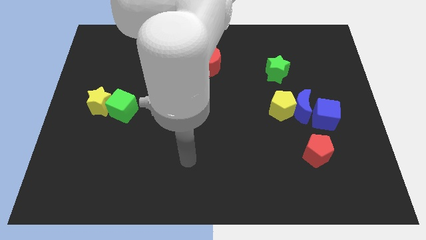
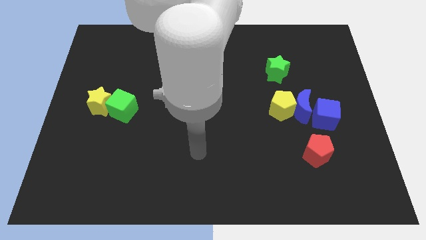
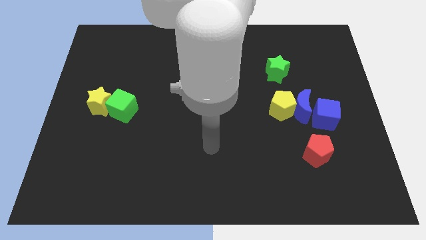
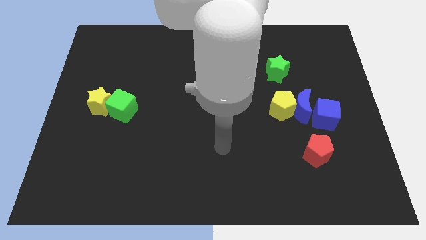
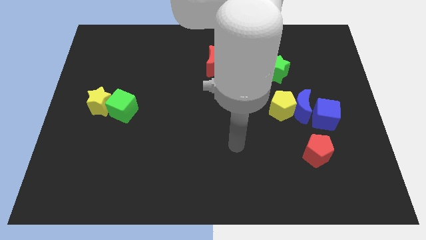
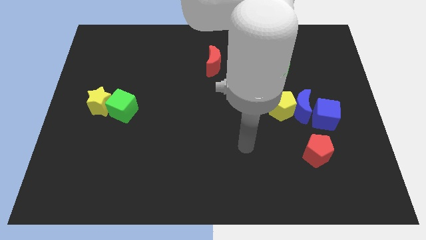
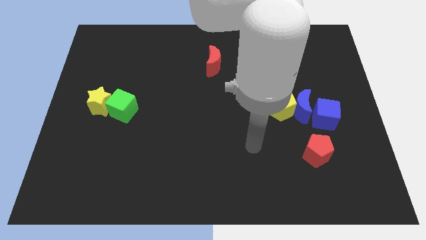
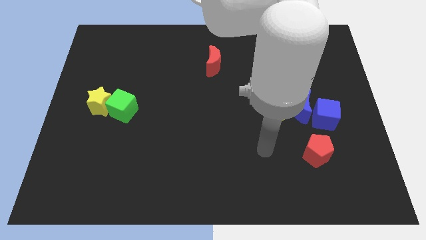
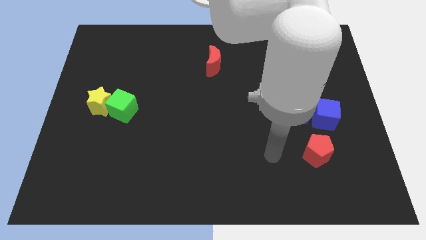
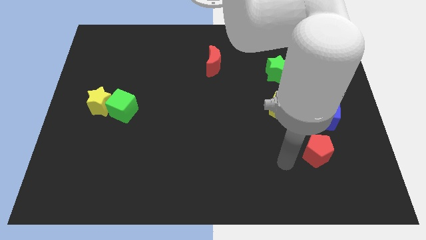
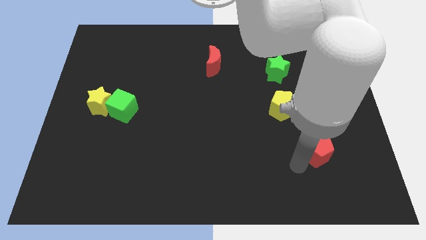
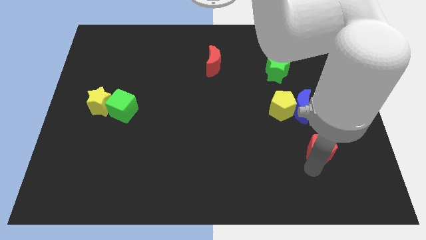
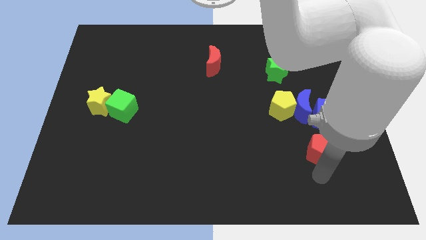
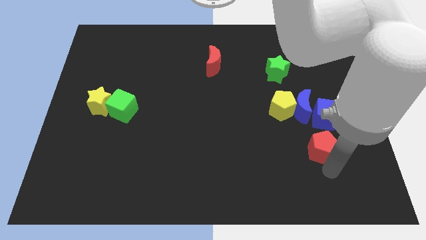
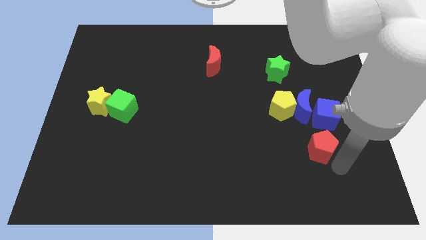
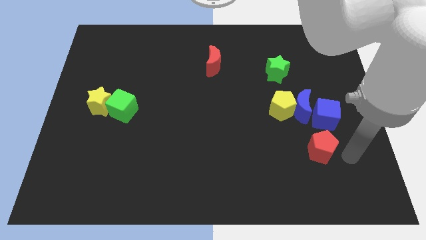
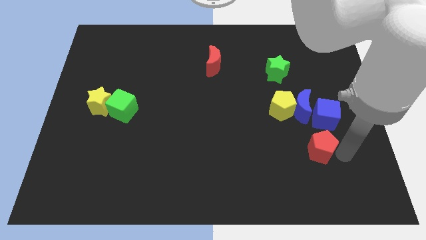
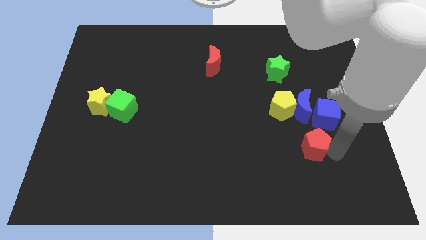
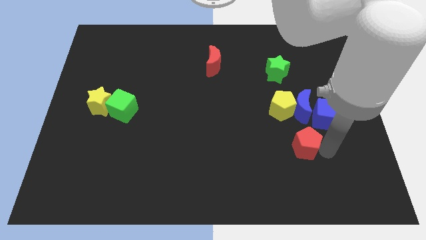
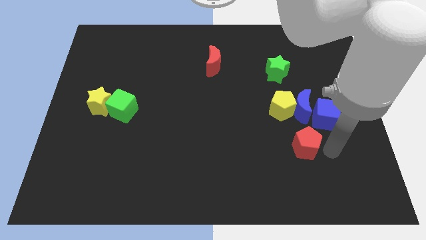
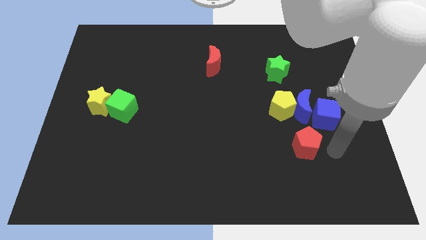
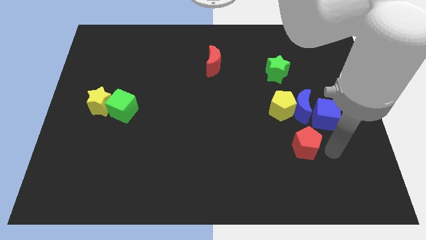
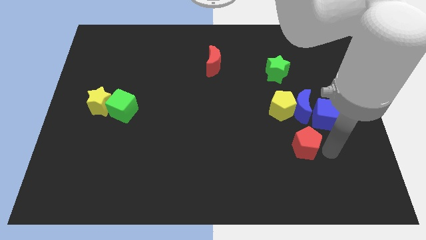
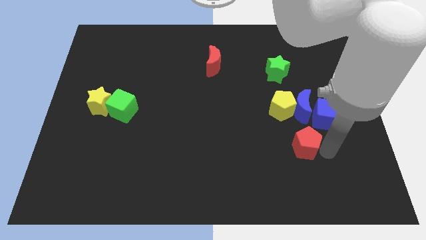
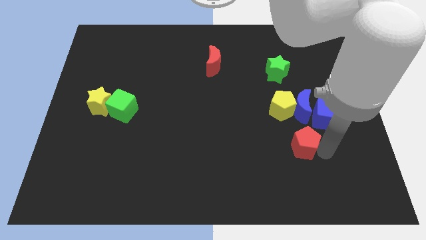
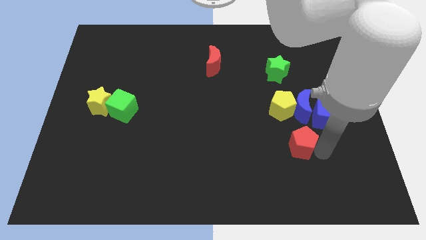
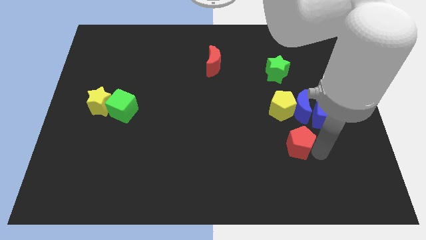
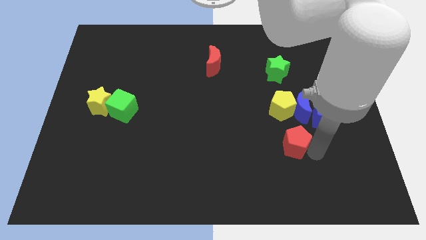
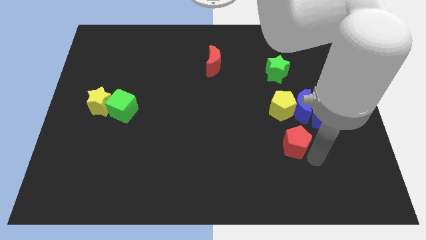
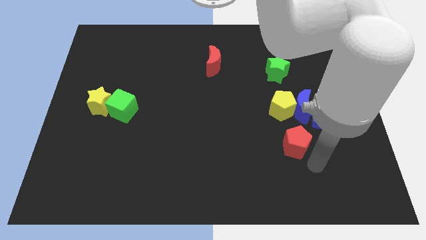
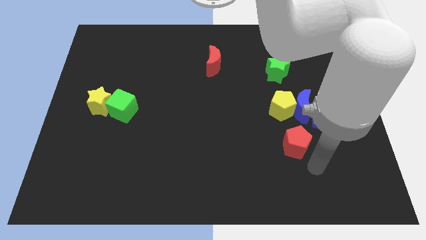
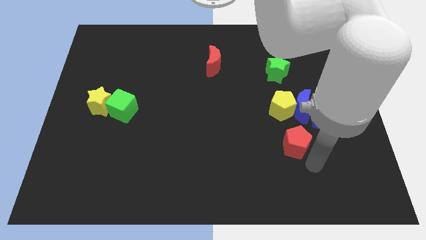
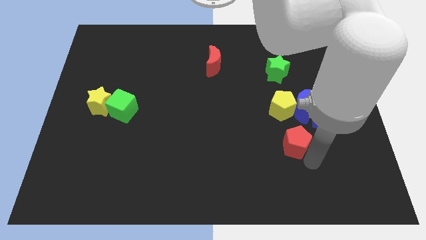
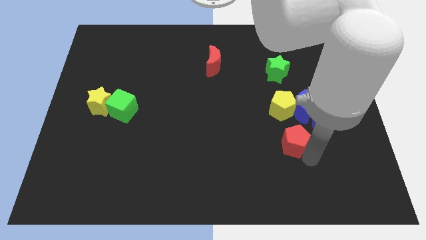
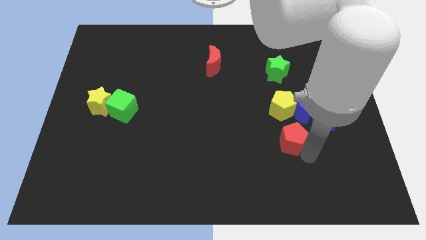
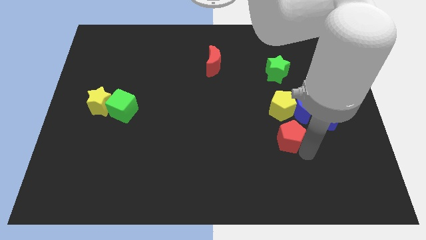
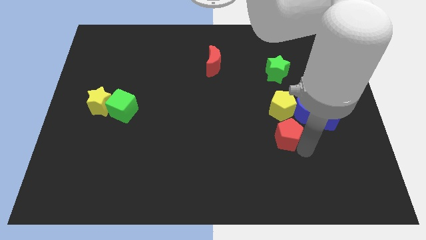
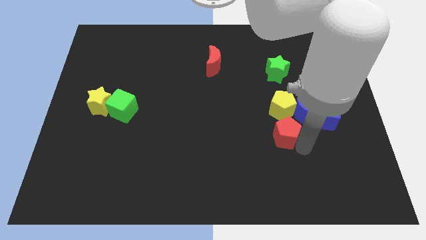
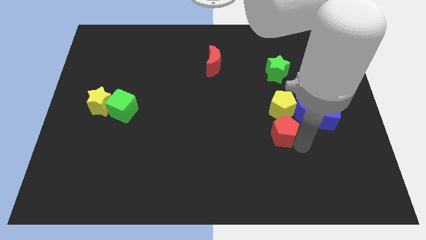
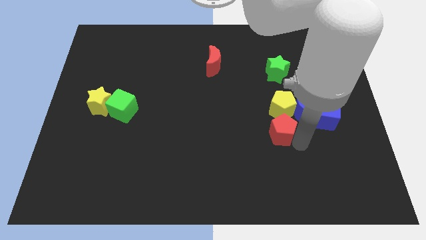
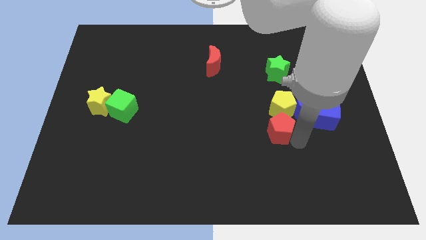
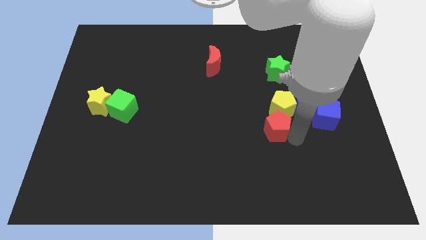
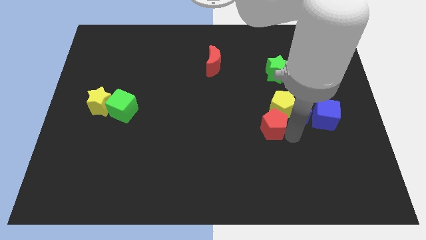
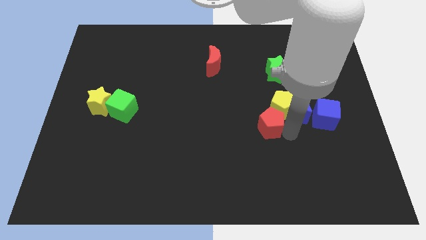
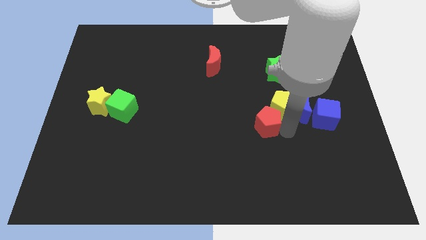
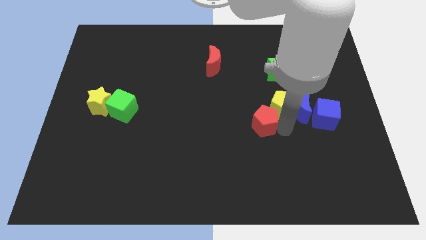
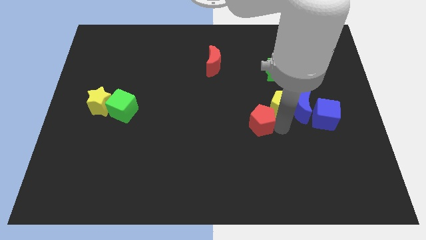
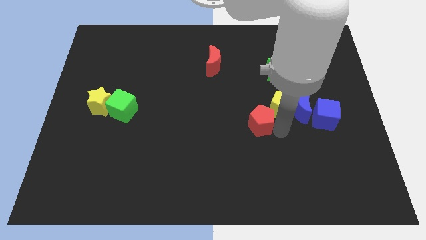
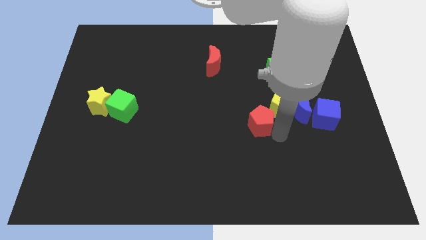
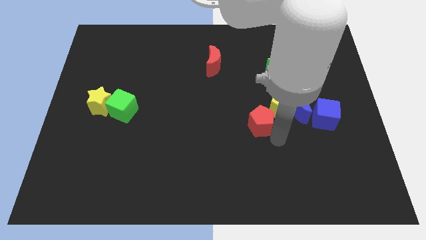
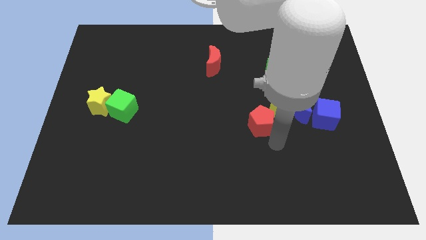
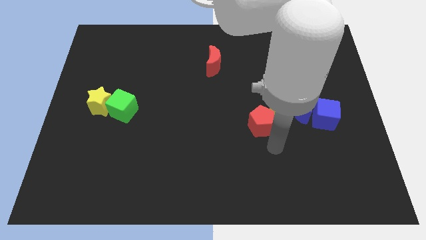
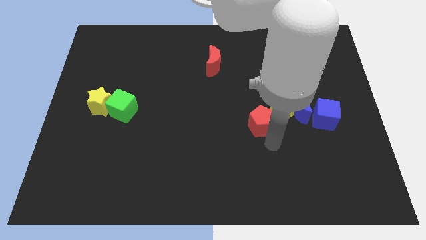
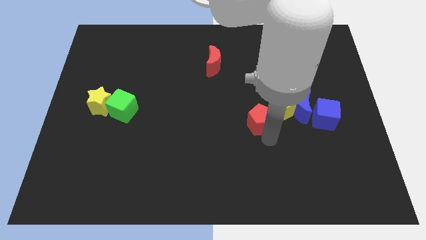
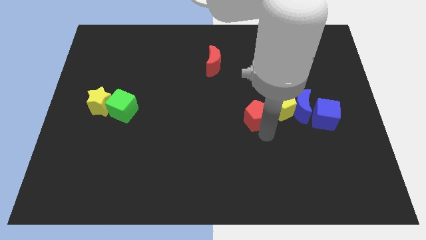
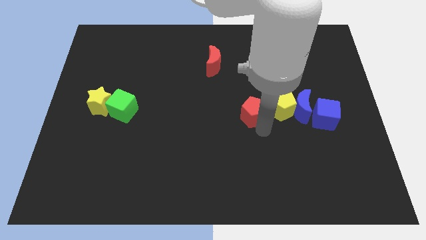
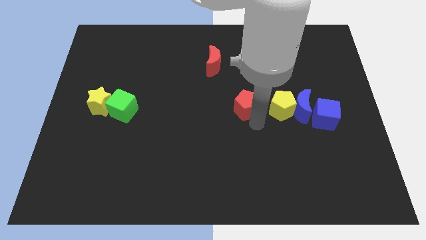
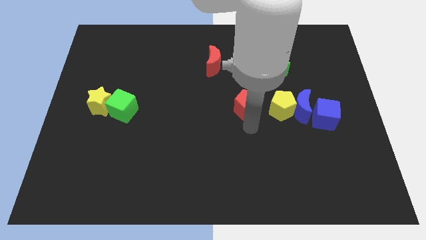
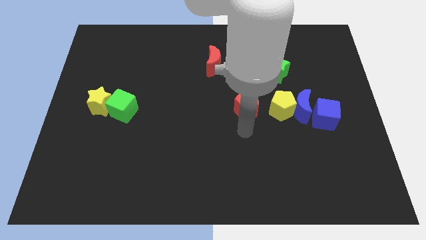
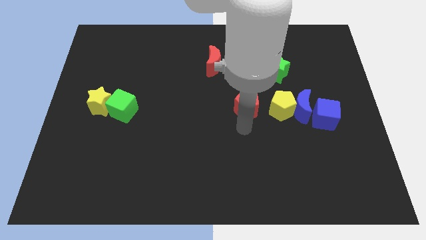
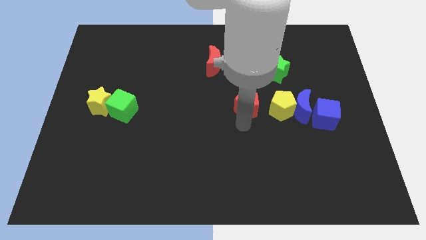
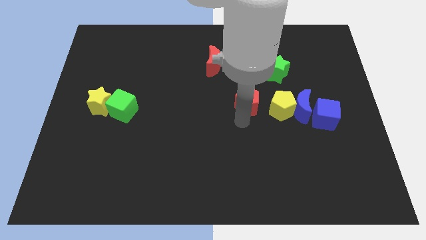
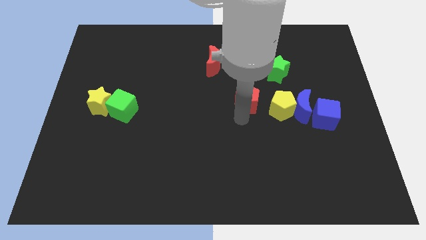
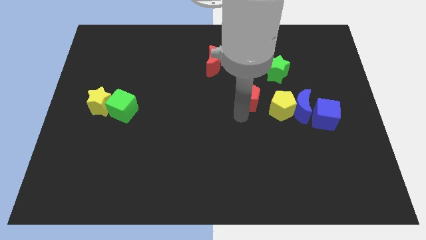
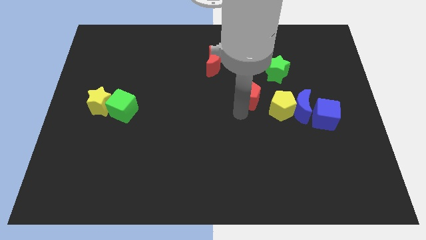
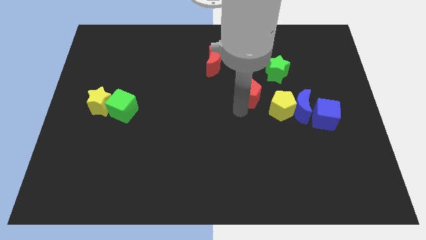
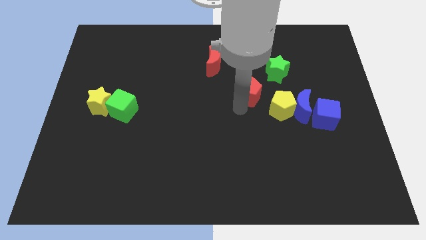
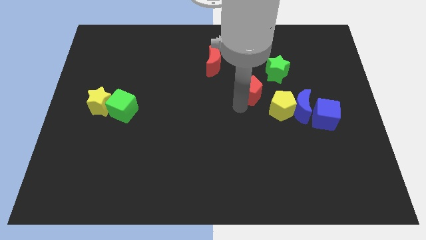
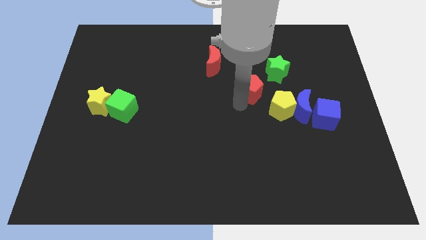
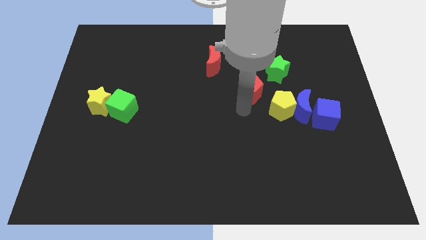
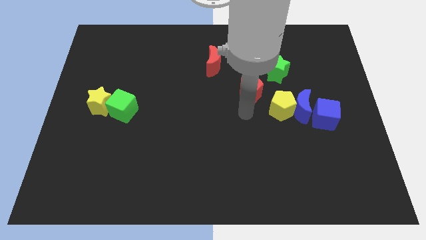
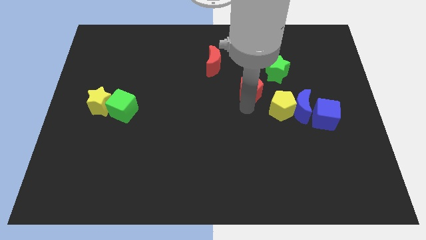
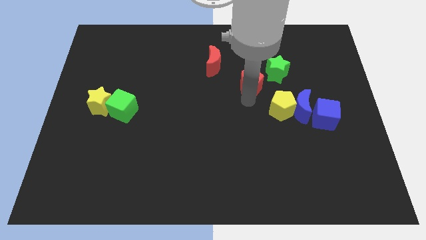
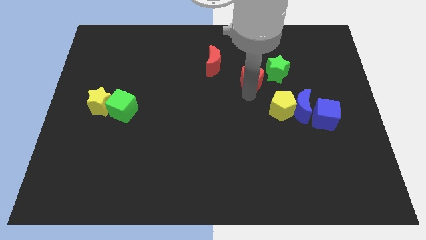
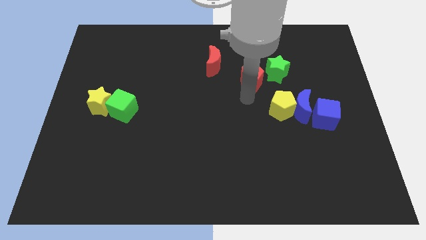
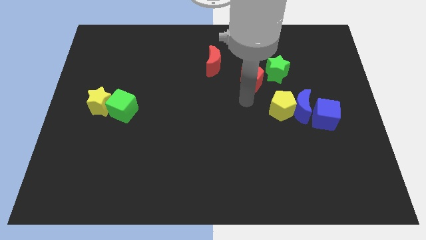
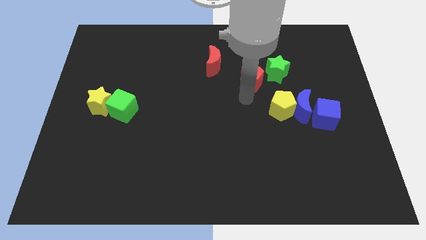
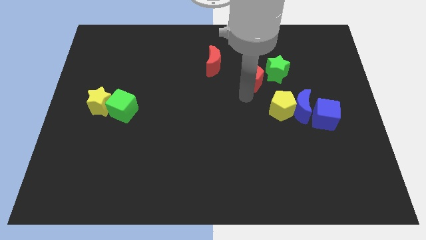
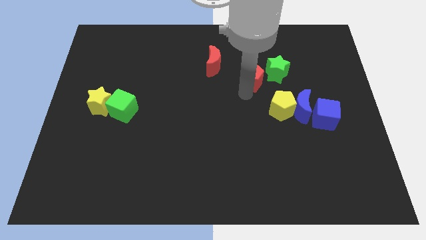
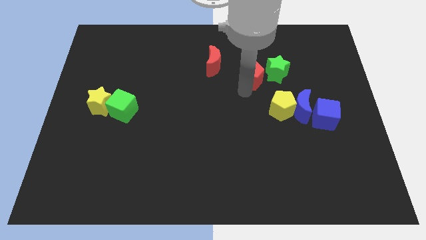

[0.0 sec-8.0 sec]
slide the red pentagon to the right side of the red moon
